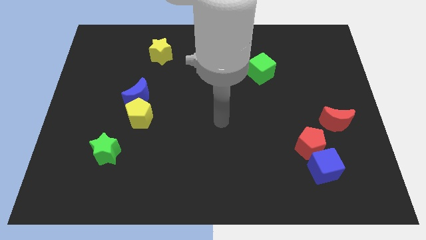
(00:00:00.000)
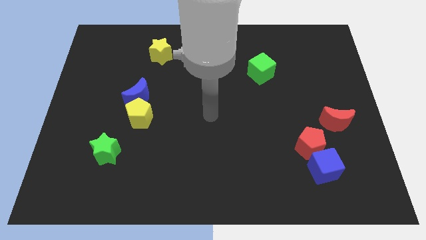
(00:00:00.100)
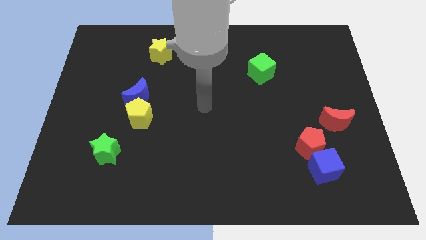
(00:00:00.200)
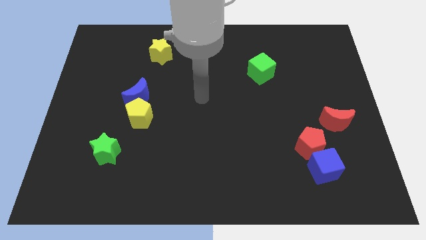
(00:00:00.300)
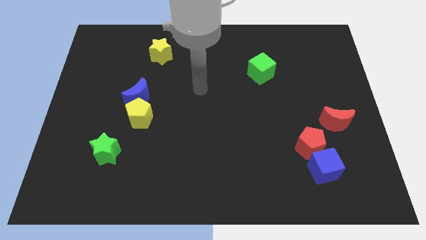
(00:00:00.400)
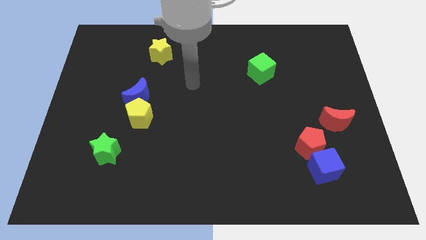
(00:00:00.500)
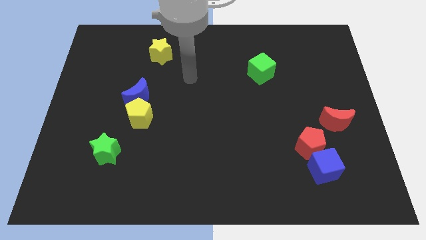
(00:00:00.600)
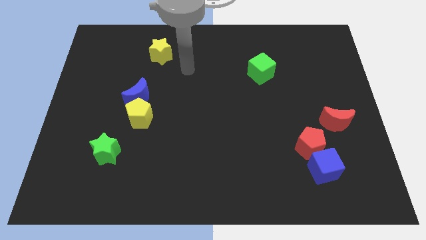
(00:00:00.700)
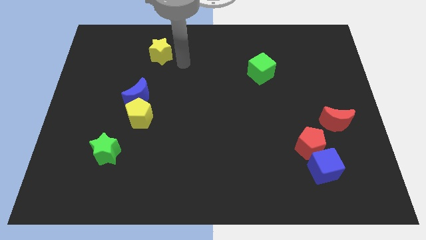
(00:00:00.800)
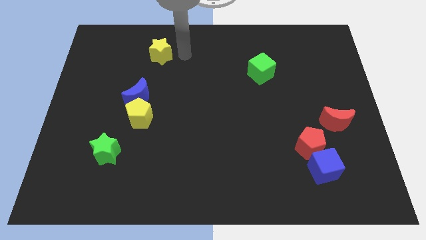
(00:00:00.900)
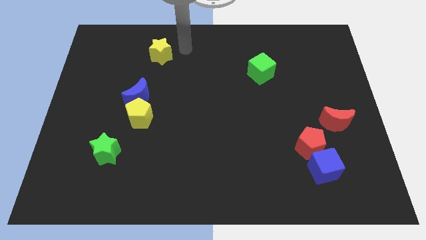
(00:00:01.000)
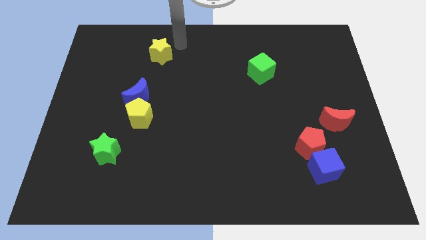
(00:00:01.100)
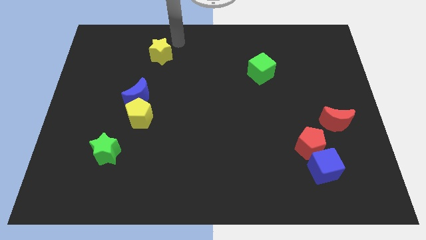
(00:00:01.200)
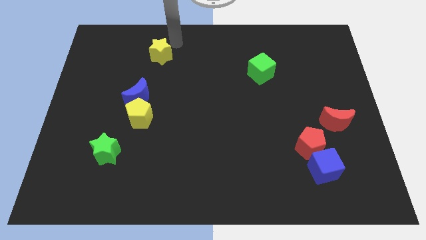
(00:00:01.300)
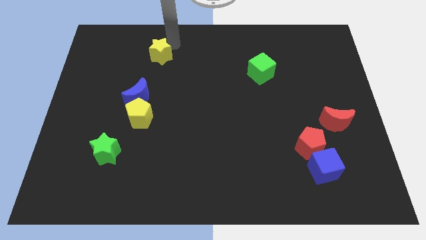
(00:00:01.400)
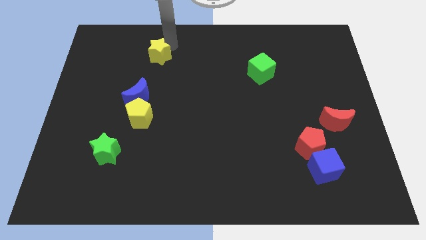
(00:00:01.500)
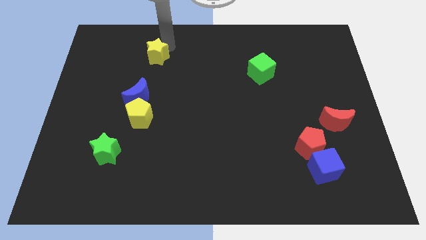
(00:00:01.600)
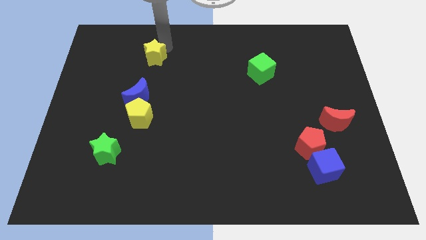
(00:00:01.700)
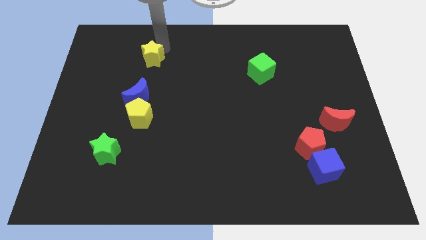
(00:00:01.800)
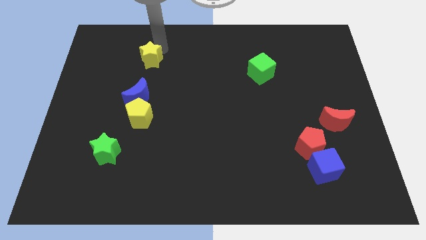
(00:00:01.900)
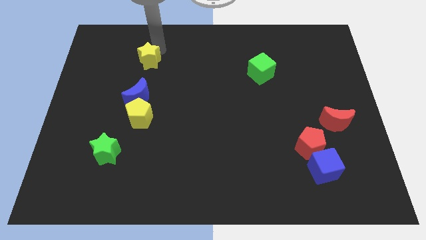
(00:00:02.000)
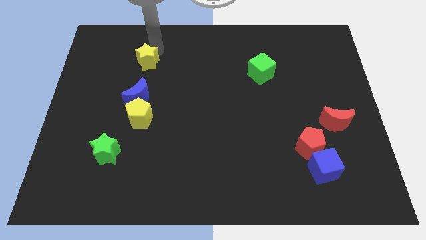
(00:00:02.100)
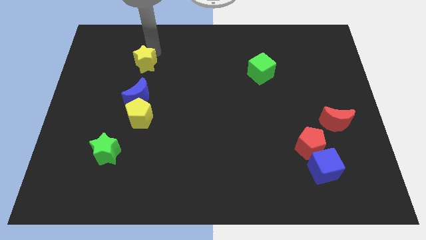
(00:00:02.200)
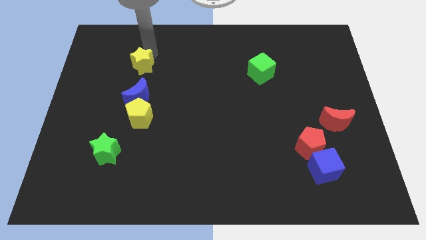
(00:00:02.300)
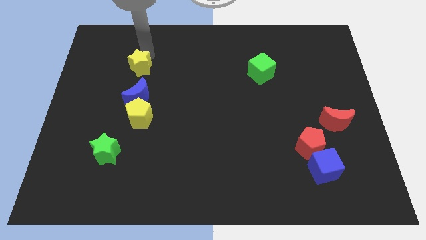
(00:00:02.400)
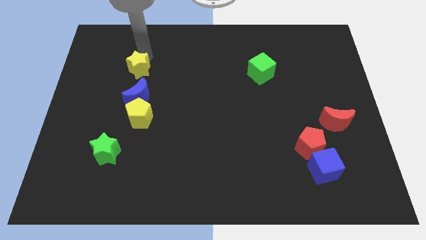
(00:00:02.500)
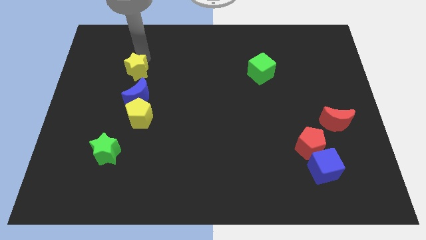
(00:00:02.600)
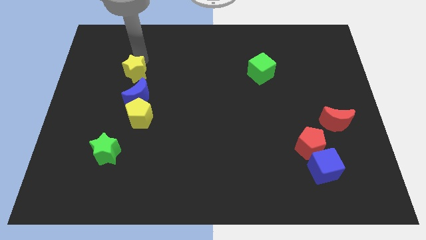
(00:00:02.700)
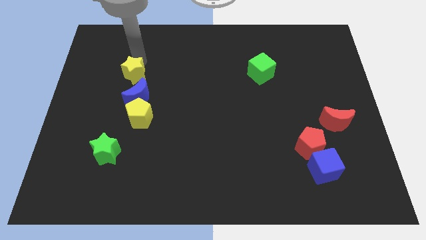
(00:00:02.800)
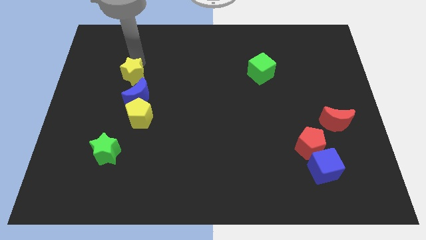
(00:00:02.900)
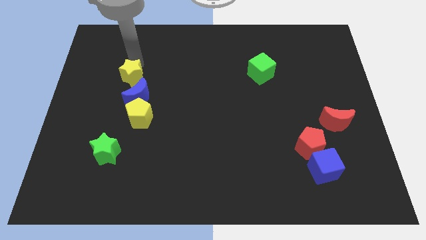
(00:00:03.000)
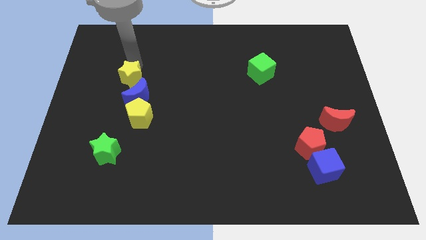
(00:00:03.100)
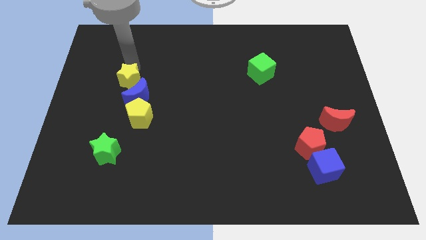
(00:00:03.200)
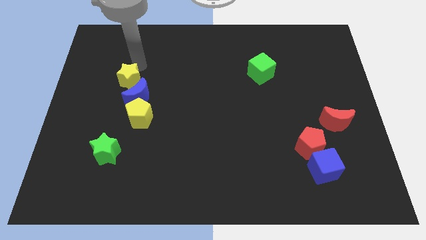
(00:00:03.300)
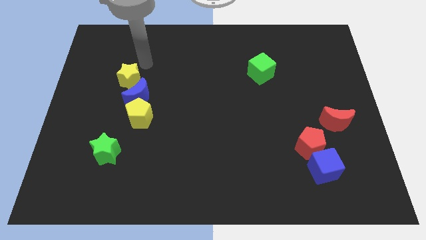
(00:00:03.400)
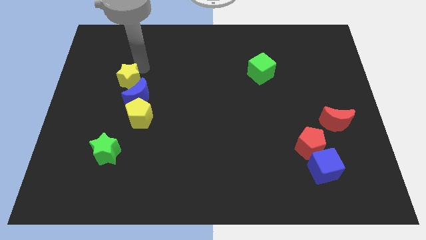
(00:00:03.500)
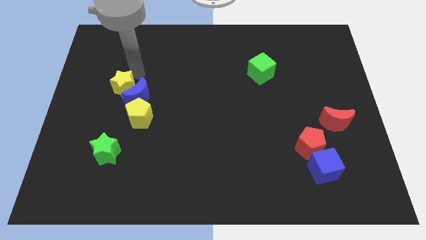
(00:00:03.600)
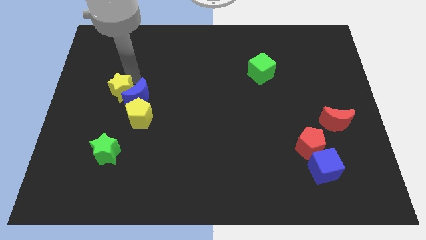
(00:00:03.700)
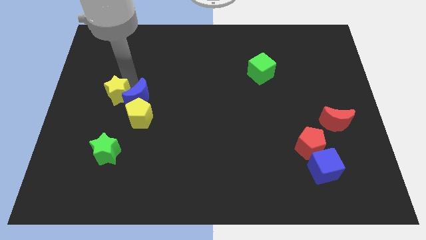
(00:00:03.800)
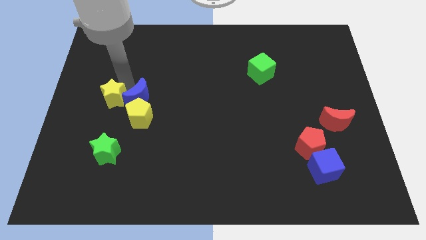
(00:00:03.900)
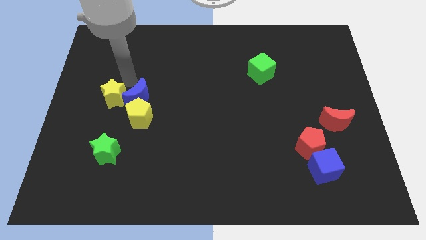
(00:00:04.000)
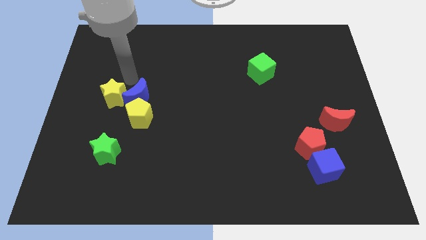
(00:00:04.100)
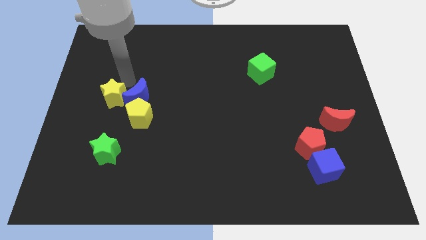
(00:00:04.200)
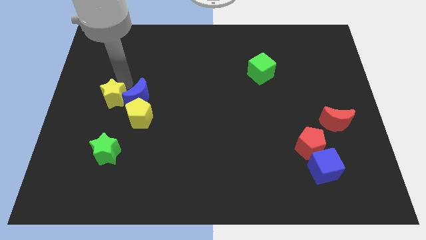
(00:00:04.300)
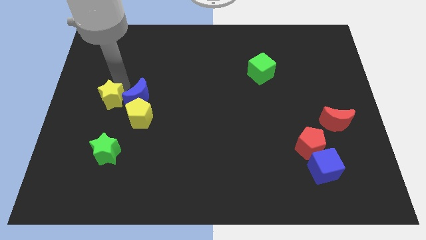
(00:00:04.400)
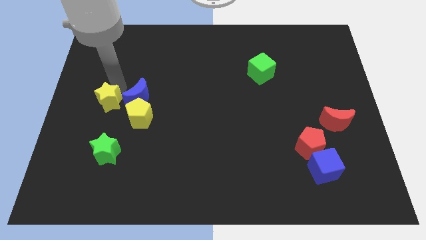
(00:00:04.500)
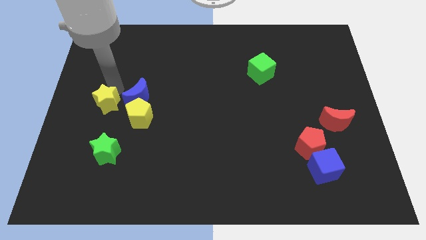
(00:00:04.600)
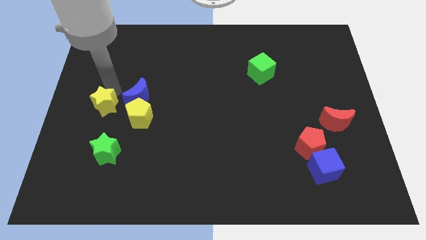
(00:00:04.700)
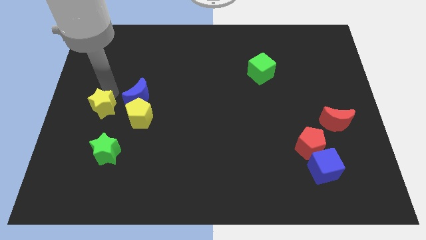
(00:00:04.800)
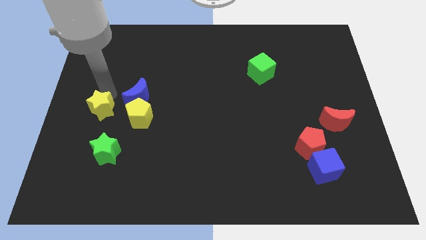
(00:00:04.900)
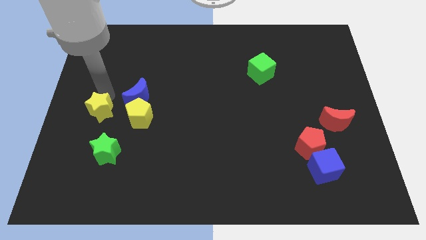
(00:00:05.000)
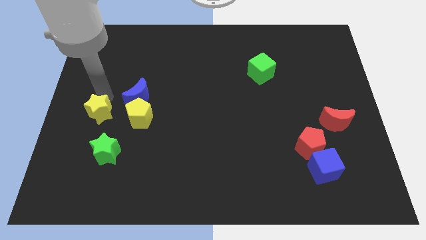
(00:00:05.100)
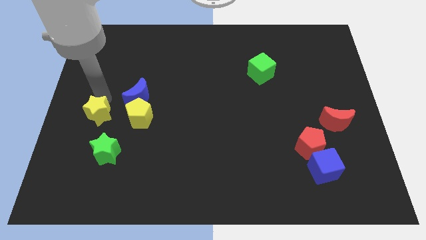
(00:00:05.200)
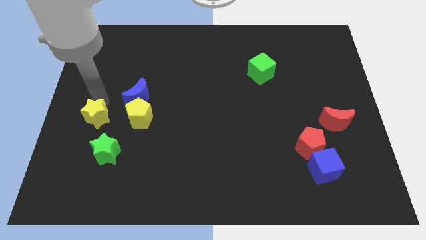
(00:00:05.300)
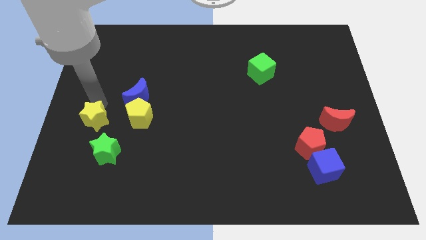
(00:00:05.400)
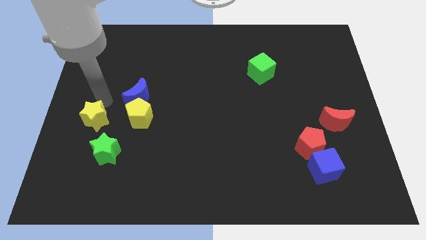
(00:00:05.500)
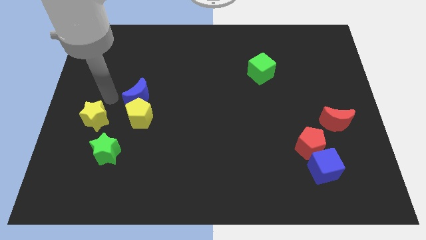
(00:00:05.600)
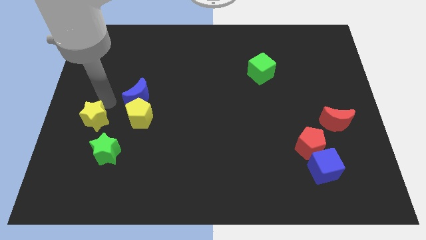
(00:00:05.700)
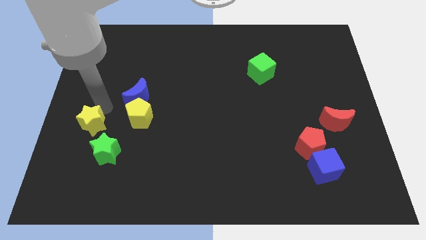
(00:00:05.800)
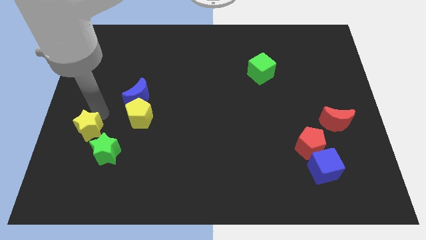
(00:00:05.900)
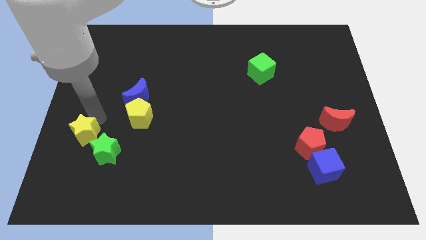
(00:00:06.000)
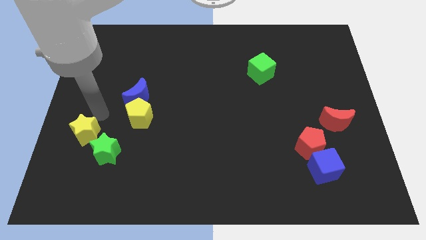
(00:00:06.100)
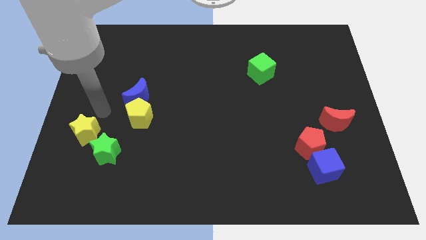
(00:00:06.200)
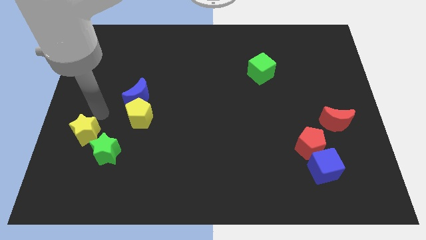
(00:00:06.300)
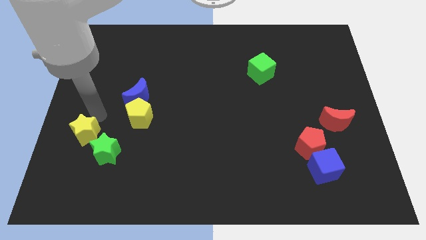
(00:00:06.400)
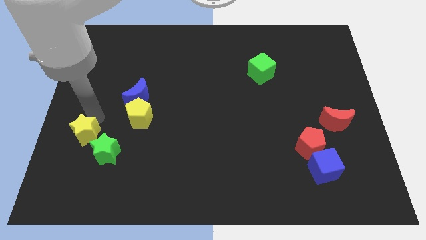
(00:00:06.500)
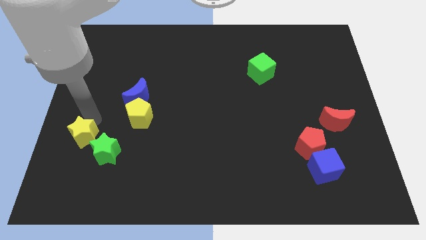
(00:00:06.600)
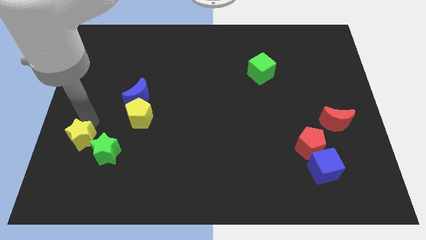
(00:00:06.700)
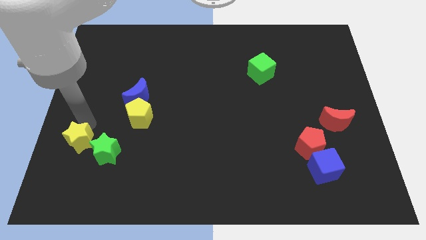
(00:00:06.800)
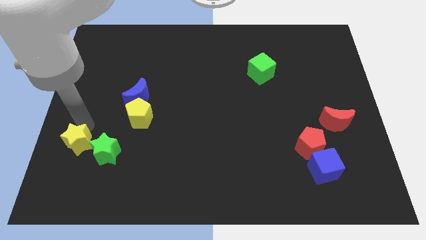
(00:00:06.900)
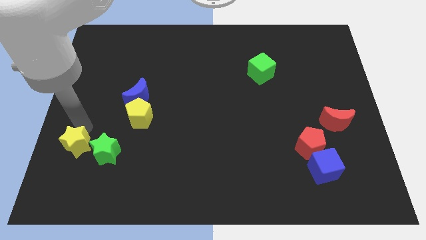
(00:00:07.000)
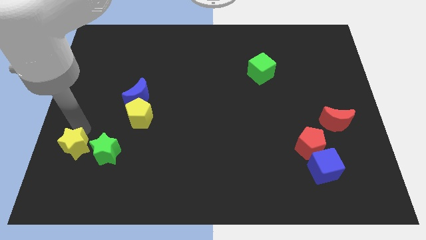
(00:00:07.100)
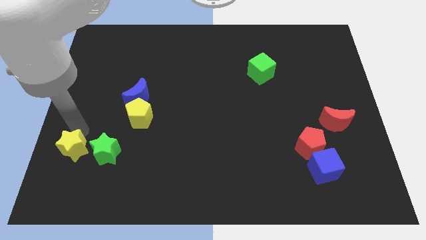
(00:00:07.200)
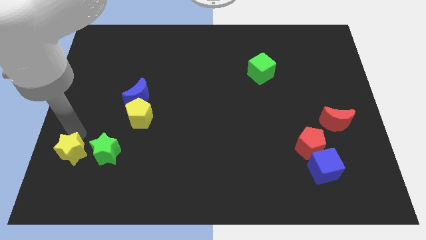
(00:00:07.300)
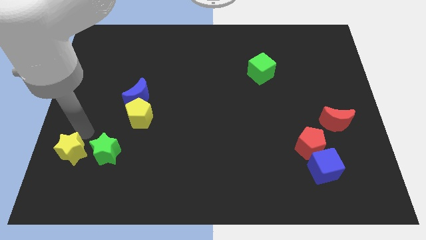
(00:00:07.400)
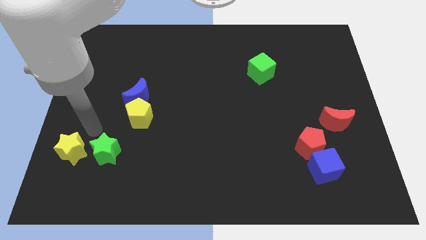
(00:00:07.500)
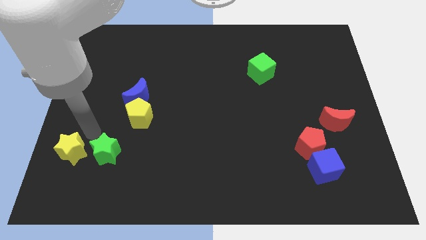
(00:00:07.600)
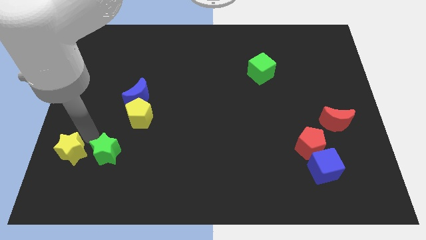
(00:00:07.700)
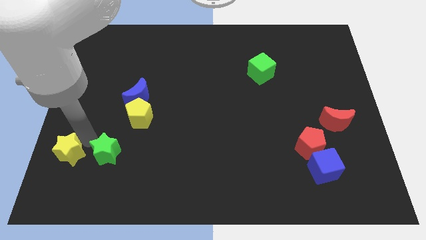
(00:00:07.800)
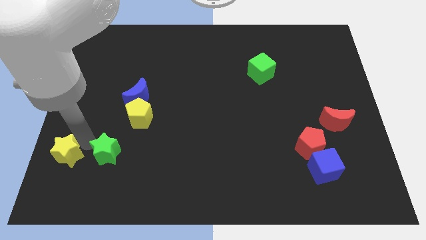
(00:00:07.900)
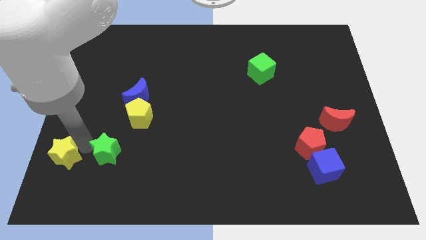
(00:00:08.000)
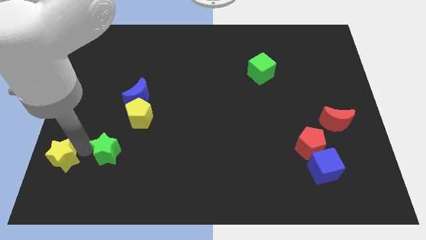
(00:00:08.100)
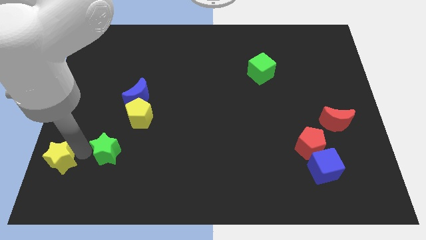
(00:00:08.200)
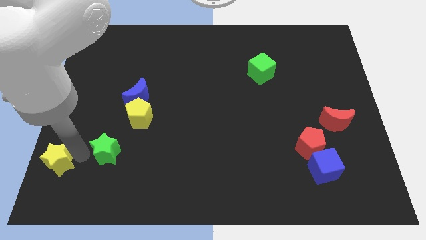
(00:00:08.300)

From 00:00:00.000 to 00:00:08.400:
push the yellow star to the bottom left of the board
